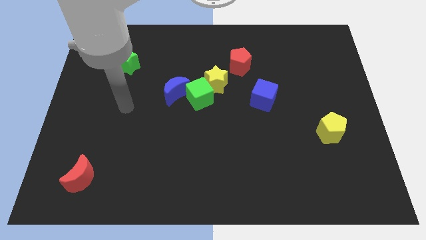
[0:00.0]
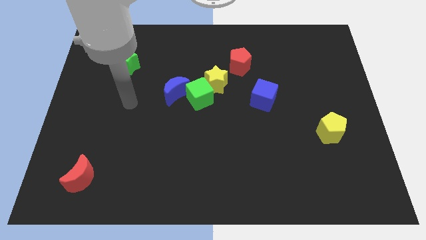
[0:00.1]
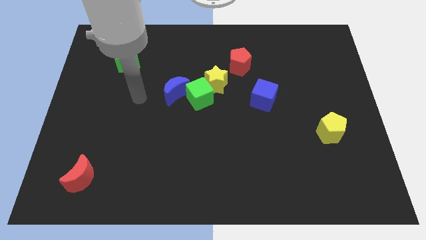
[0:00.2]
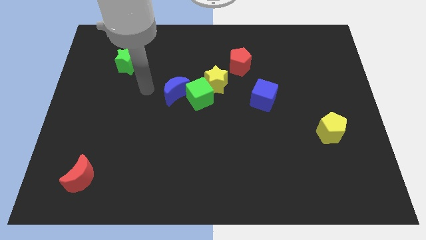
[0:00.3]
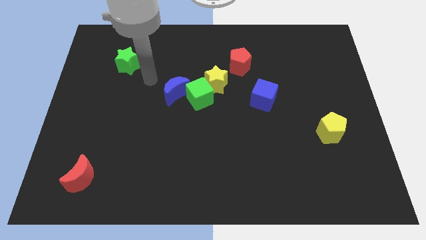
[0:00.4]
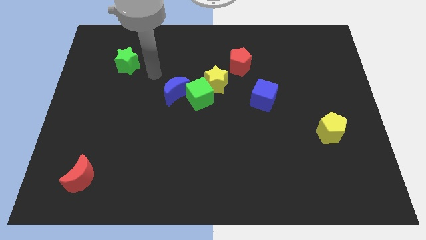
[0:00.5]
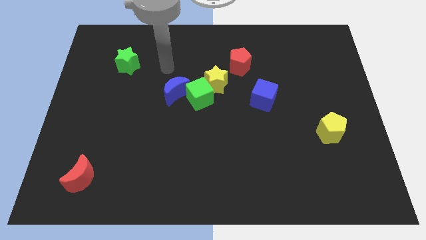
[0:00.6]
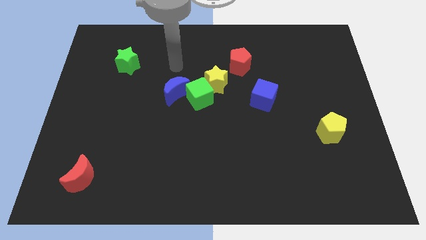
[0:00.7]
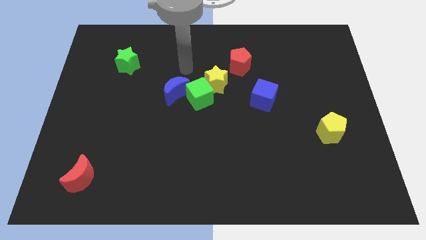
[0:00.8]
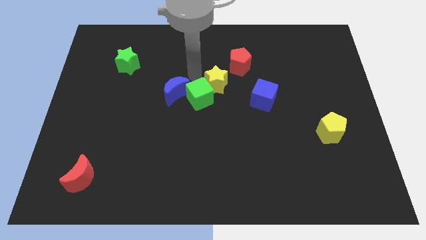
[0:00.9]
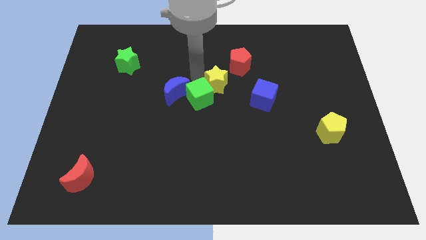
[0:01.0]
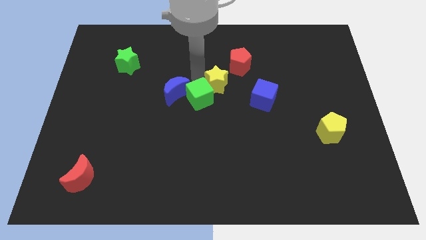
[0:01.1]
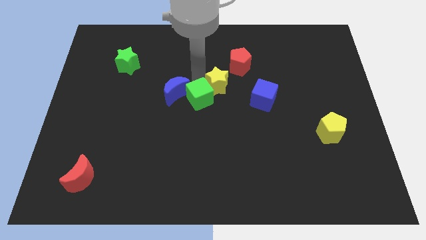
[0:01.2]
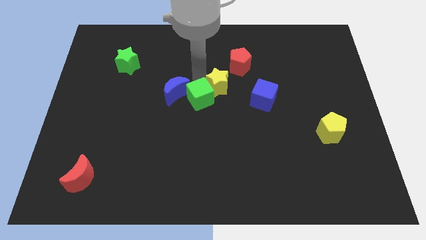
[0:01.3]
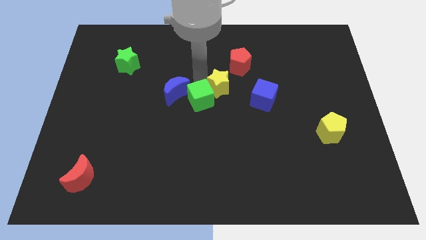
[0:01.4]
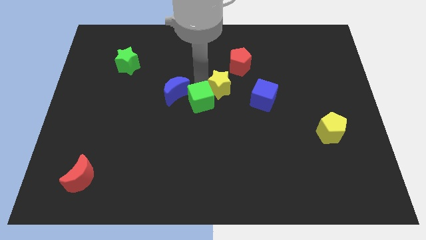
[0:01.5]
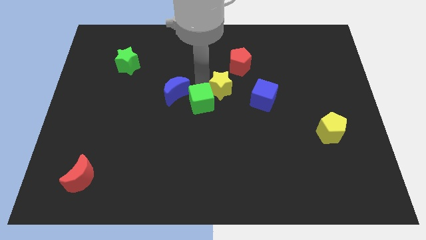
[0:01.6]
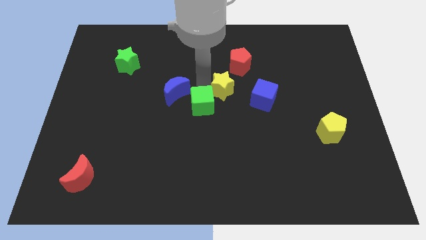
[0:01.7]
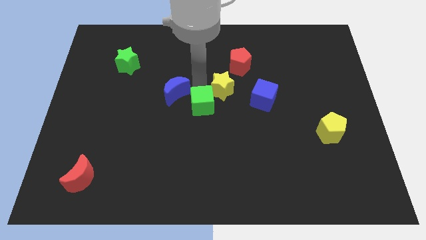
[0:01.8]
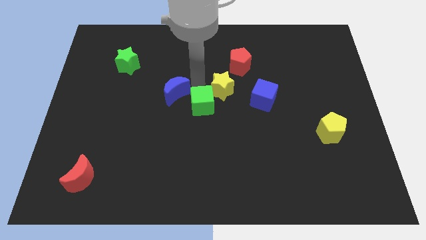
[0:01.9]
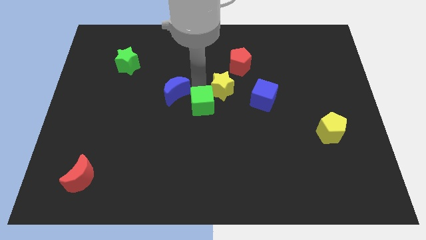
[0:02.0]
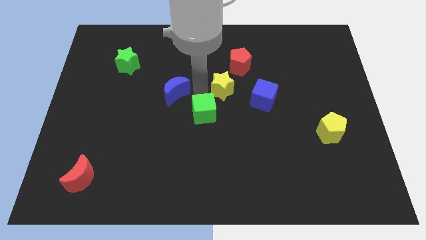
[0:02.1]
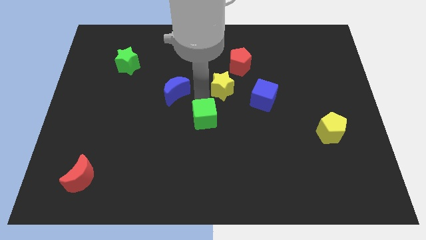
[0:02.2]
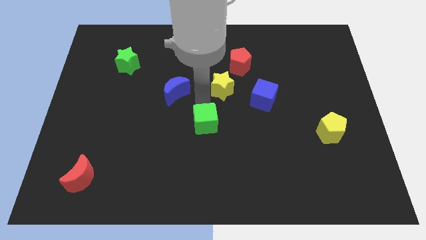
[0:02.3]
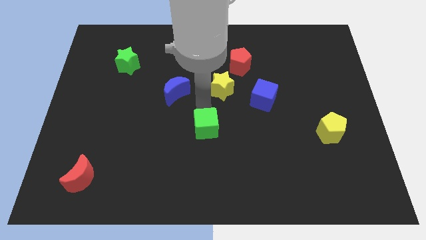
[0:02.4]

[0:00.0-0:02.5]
separate the green cube from the yellow star and blue moon

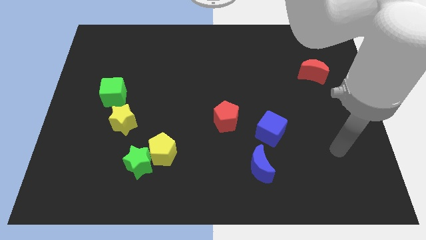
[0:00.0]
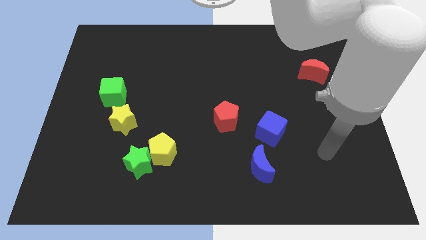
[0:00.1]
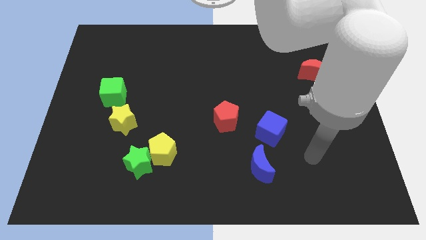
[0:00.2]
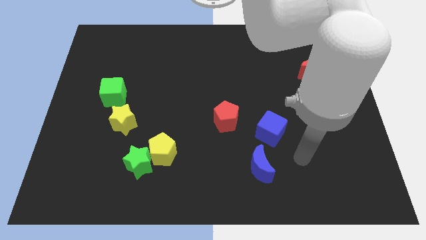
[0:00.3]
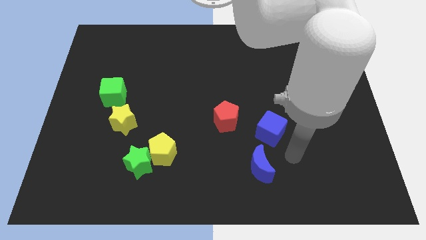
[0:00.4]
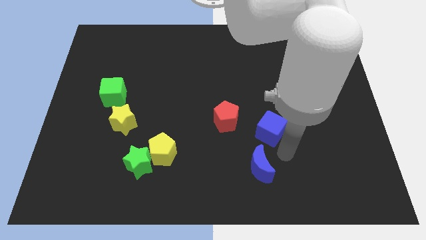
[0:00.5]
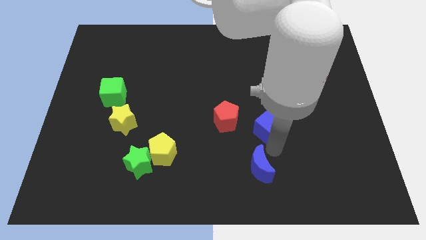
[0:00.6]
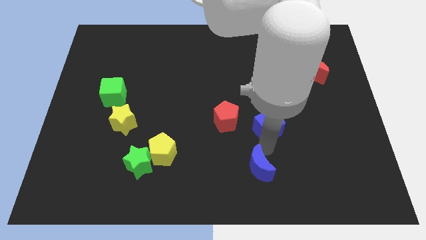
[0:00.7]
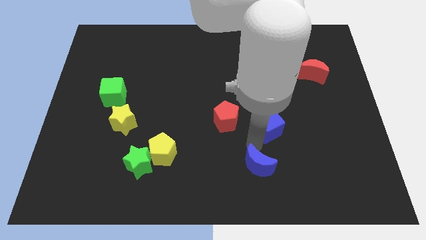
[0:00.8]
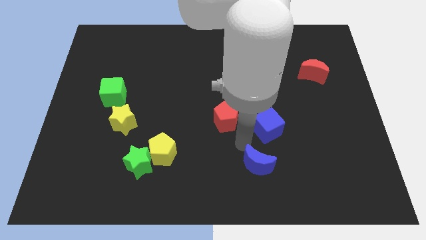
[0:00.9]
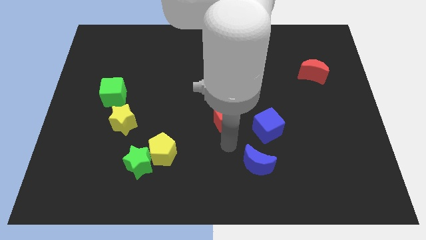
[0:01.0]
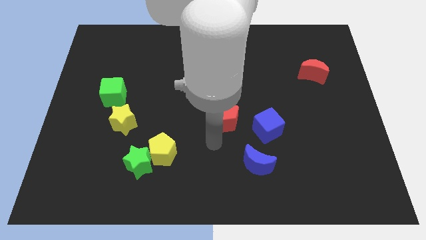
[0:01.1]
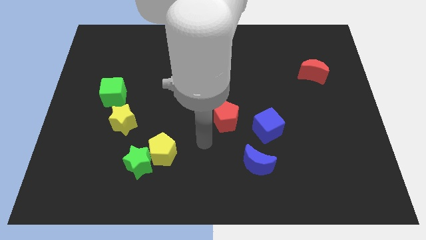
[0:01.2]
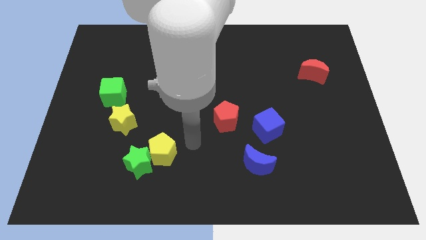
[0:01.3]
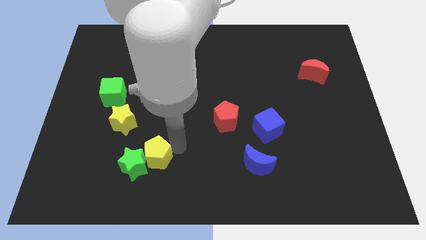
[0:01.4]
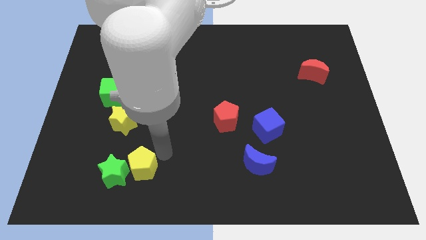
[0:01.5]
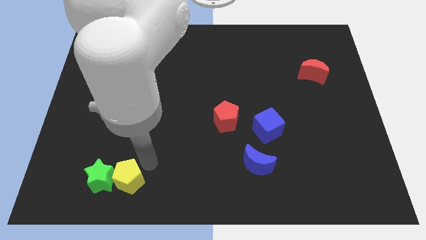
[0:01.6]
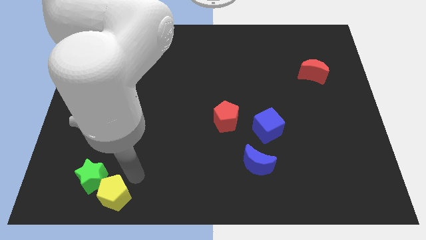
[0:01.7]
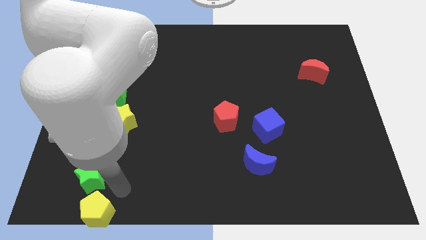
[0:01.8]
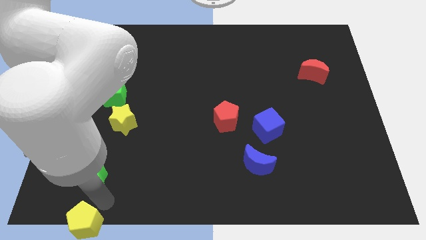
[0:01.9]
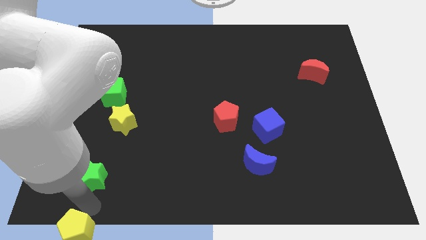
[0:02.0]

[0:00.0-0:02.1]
pull the green star apart from the yellow pentagon

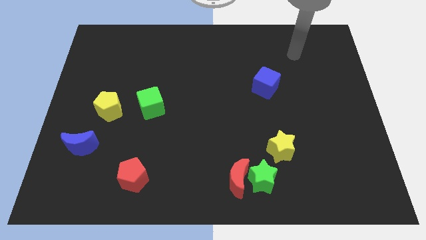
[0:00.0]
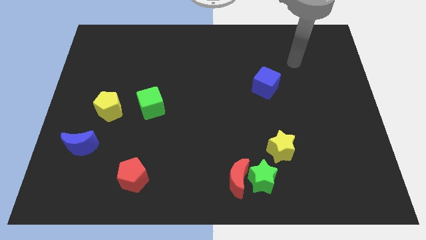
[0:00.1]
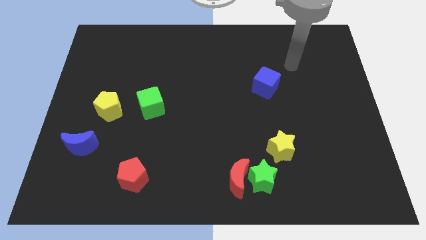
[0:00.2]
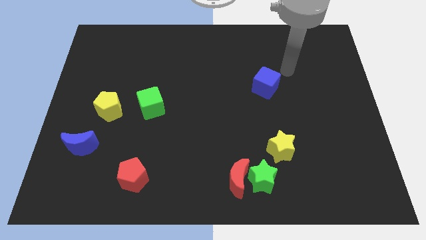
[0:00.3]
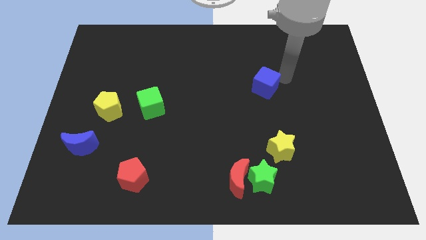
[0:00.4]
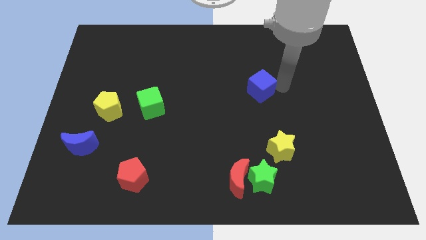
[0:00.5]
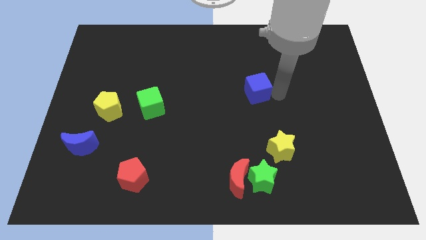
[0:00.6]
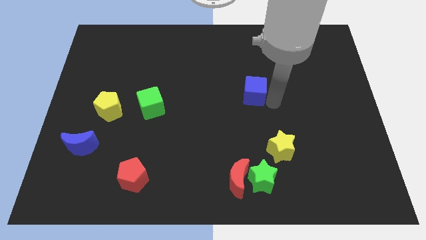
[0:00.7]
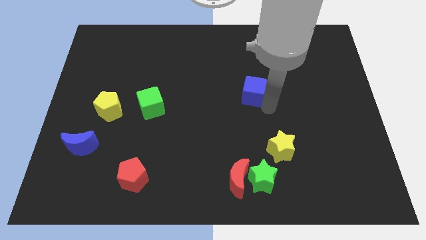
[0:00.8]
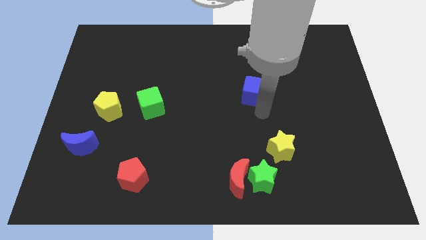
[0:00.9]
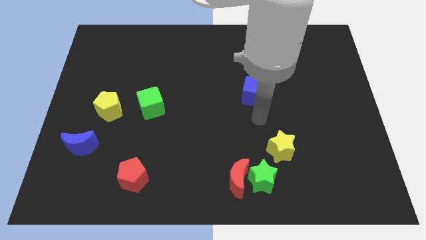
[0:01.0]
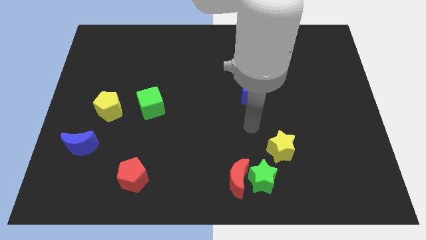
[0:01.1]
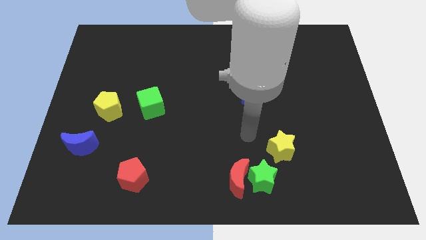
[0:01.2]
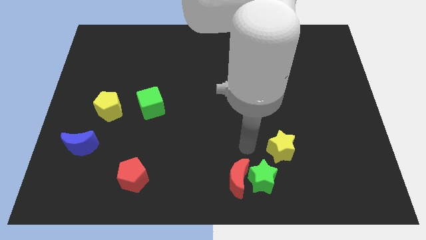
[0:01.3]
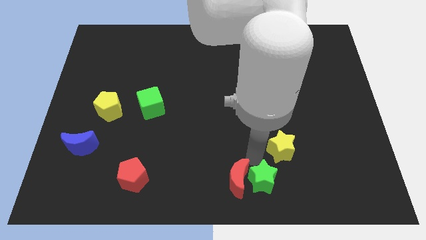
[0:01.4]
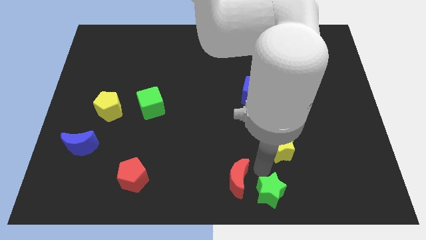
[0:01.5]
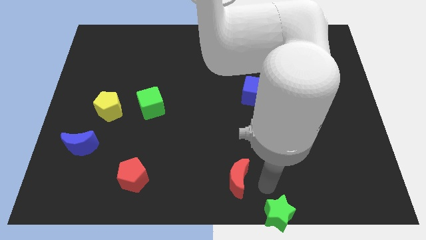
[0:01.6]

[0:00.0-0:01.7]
pull the red moon apart from the green star

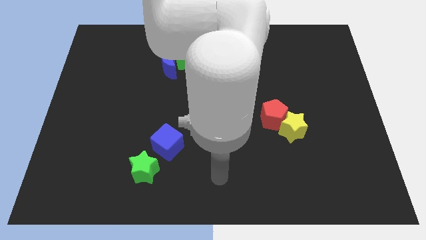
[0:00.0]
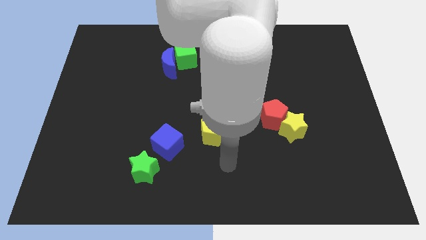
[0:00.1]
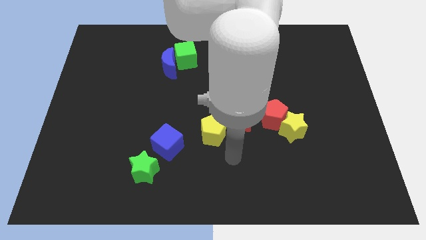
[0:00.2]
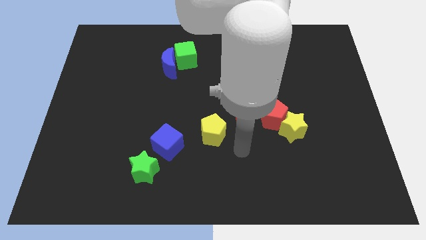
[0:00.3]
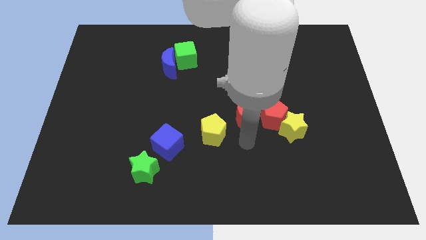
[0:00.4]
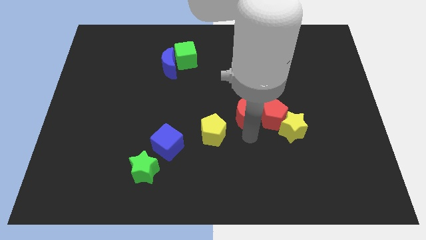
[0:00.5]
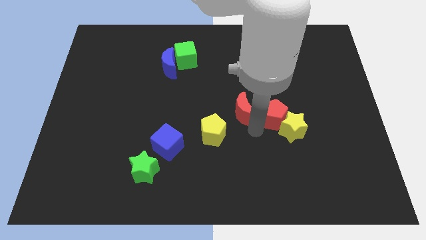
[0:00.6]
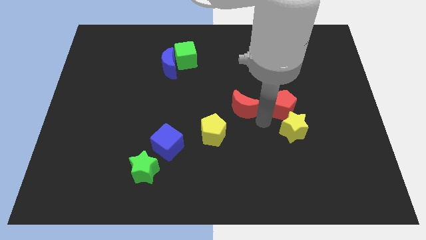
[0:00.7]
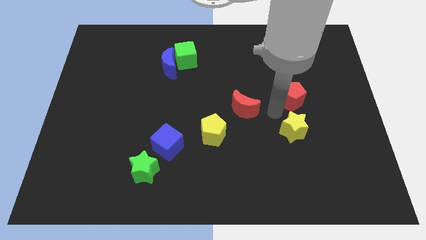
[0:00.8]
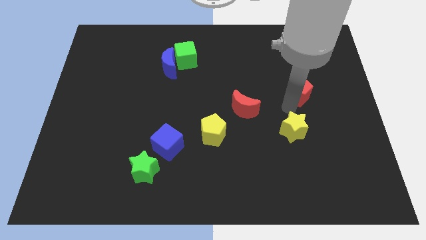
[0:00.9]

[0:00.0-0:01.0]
pull the yellow star apart from the red pentagon

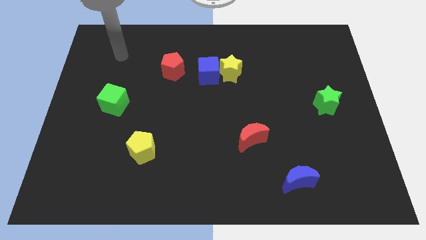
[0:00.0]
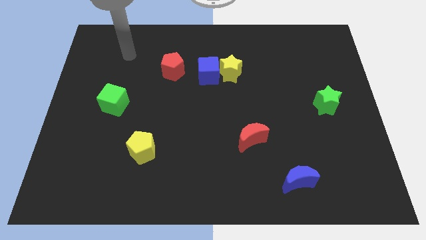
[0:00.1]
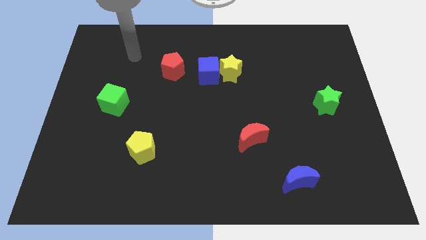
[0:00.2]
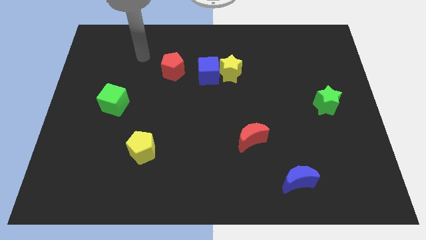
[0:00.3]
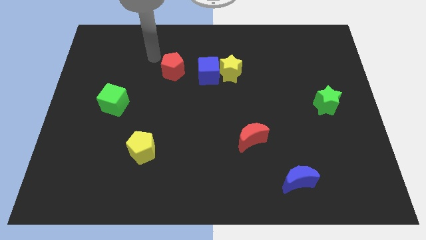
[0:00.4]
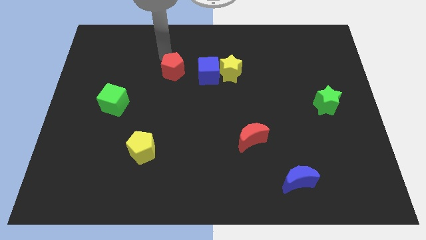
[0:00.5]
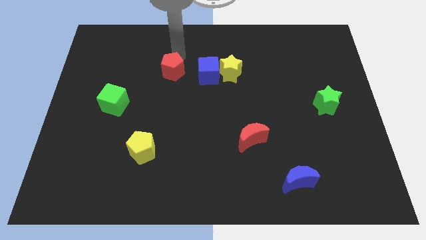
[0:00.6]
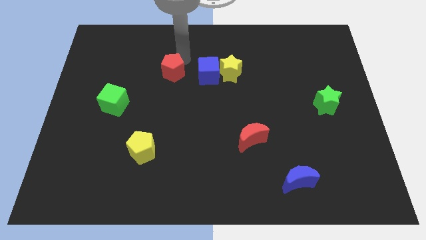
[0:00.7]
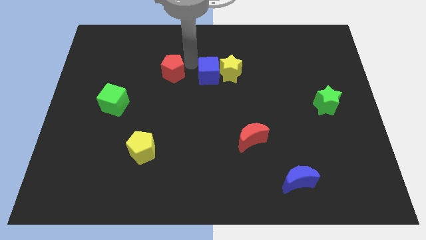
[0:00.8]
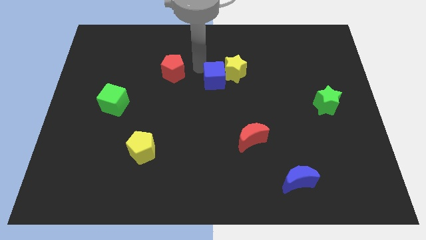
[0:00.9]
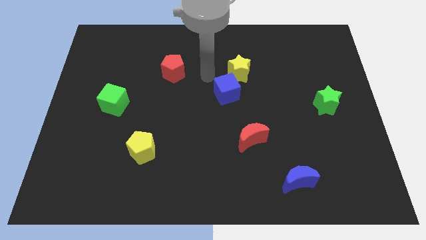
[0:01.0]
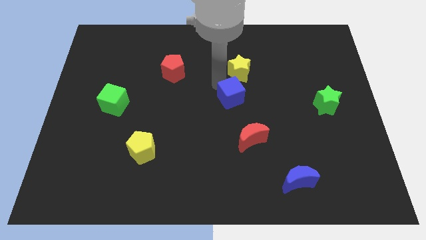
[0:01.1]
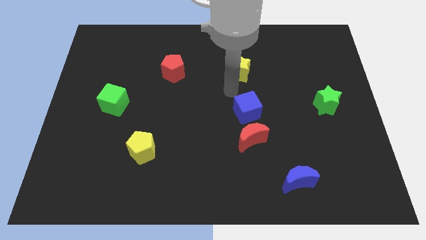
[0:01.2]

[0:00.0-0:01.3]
pull the yellow star apart from the blue cube

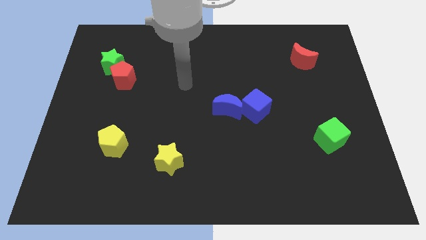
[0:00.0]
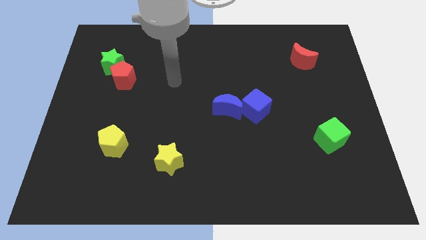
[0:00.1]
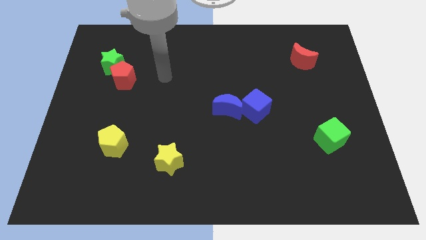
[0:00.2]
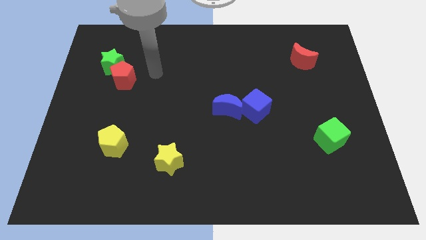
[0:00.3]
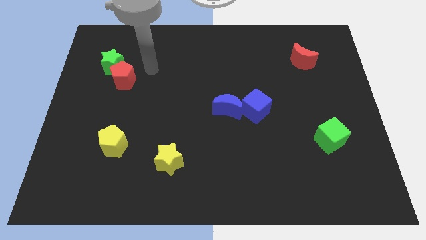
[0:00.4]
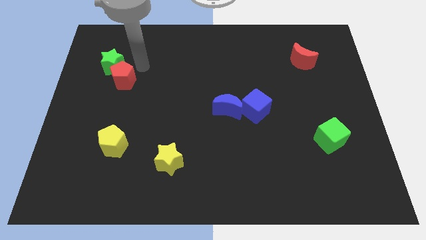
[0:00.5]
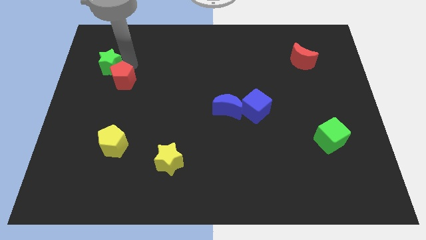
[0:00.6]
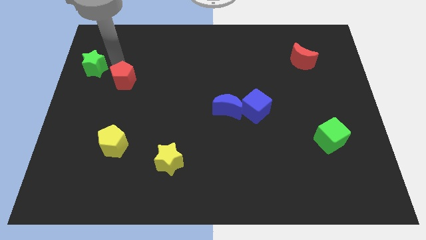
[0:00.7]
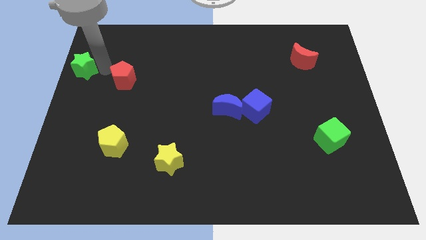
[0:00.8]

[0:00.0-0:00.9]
move the red pentagon away from the green star
